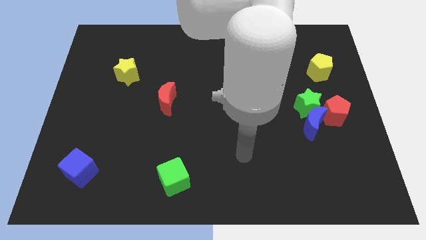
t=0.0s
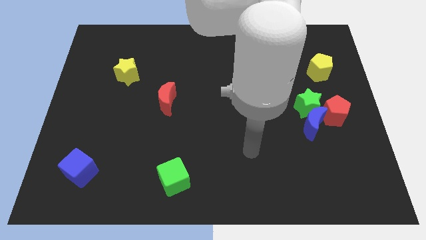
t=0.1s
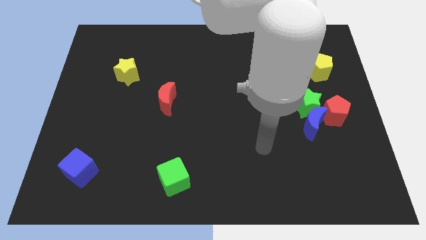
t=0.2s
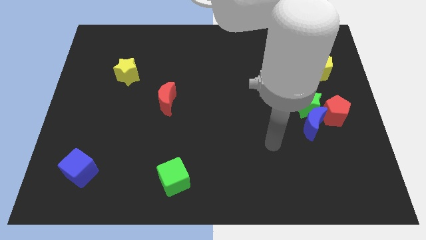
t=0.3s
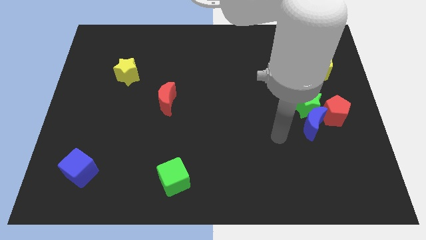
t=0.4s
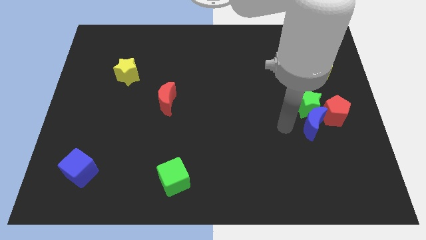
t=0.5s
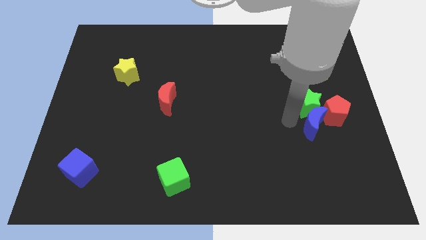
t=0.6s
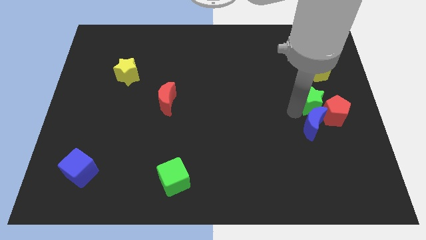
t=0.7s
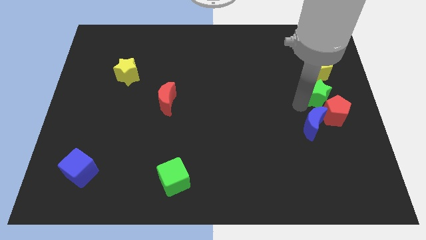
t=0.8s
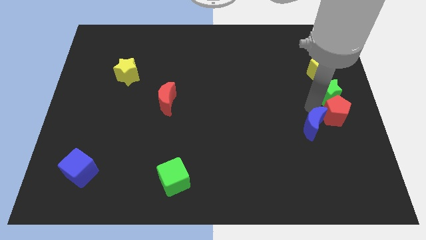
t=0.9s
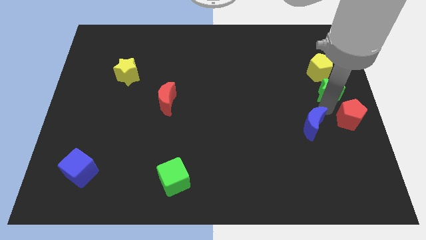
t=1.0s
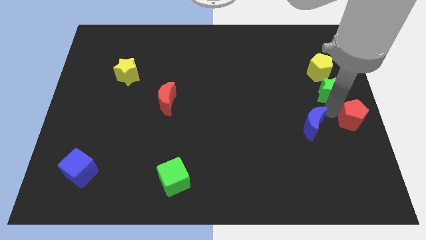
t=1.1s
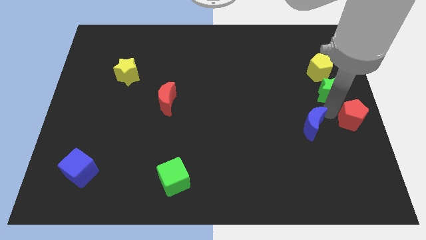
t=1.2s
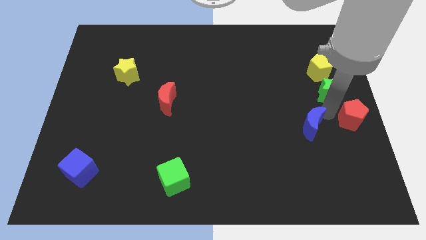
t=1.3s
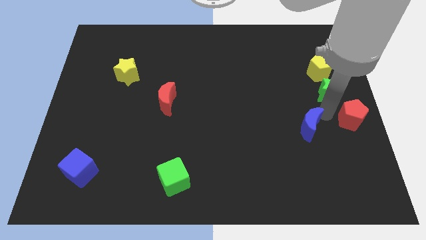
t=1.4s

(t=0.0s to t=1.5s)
move the blue moon away from the green star and red pentagon

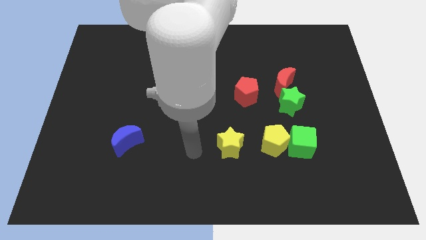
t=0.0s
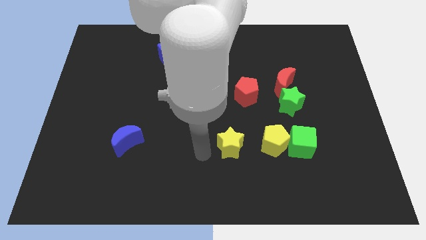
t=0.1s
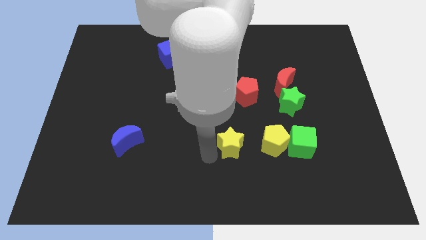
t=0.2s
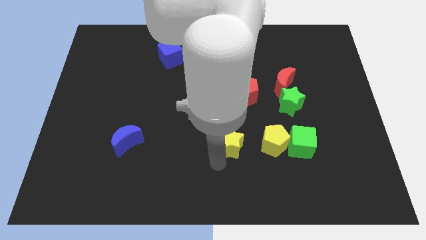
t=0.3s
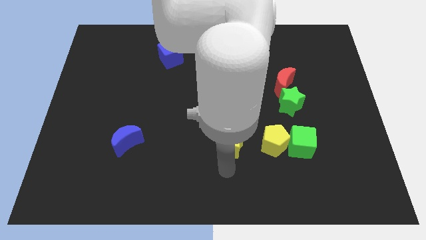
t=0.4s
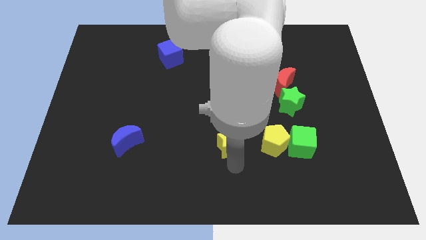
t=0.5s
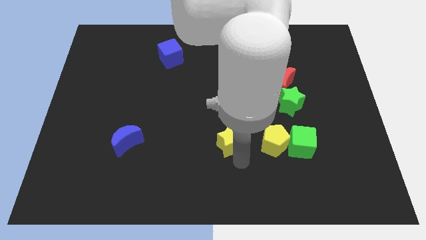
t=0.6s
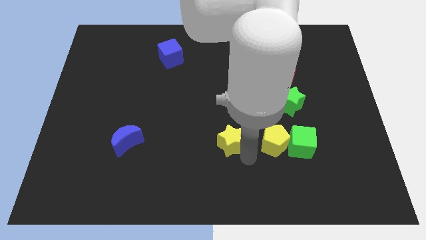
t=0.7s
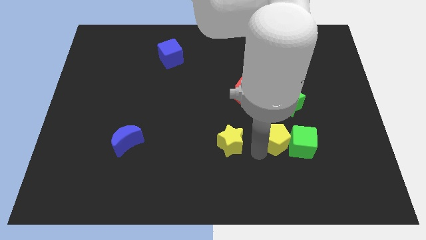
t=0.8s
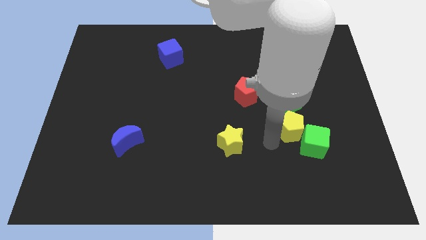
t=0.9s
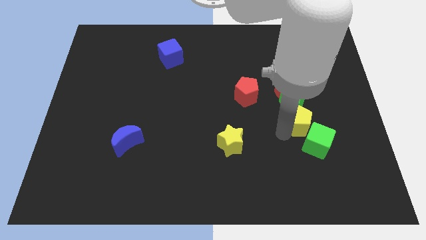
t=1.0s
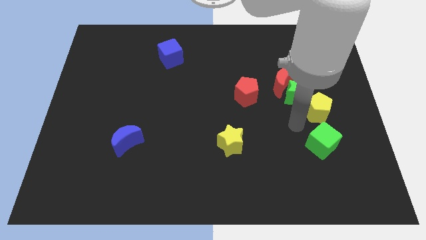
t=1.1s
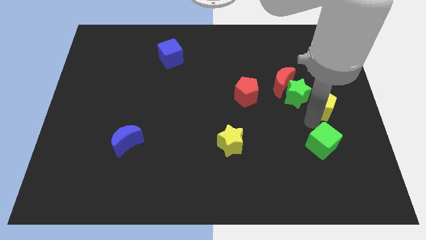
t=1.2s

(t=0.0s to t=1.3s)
separate the green cube from the yellow pentagon

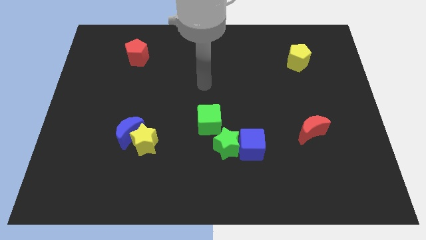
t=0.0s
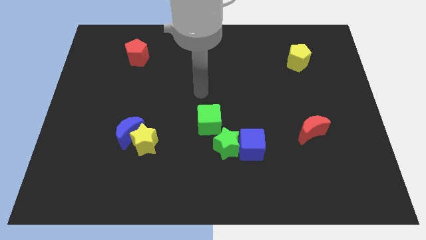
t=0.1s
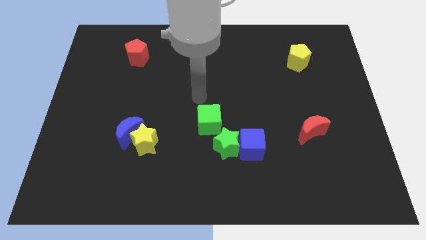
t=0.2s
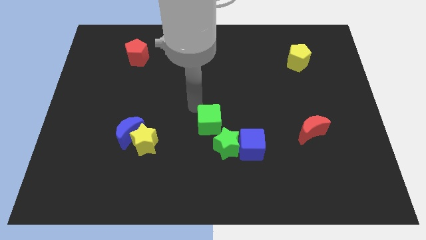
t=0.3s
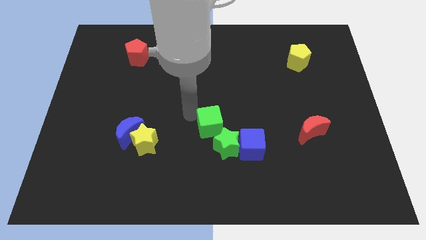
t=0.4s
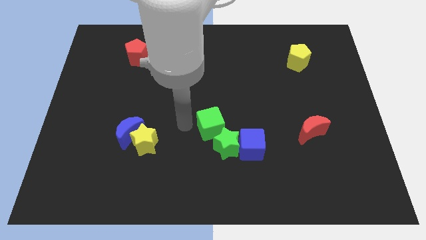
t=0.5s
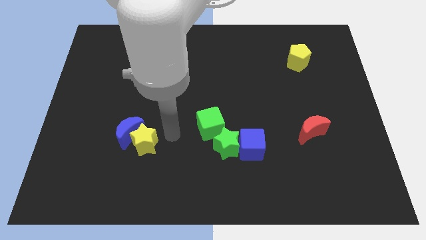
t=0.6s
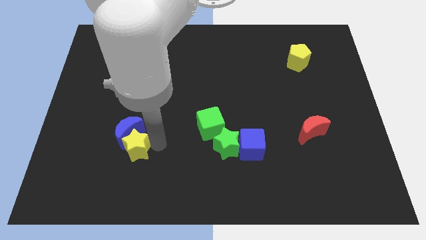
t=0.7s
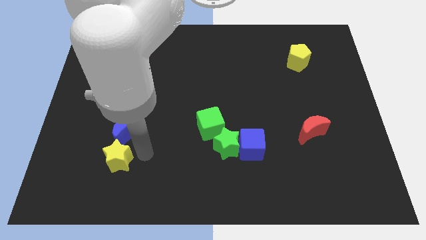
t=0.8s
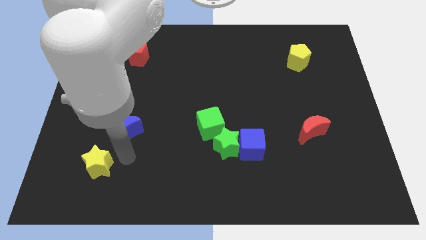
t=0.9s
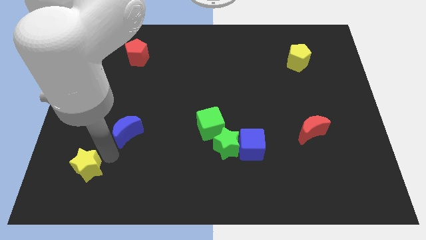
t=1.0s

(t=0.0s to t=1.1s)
pull the blue moon apart from the yellow star

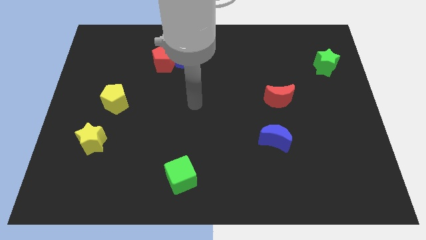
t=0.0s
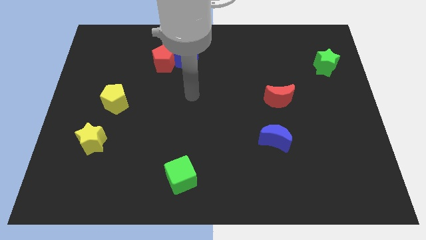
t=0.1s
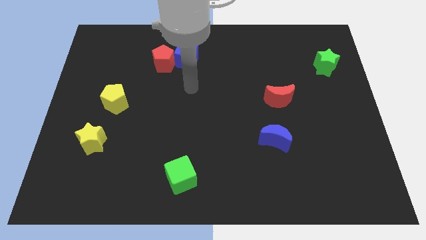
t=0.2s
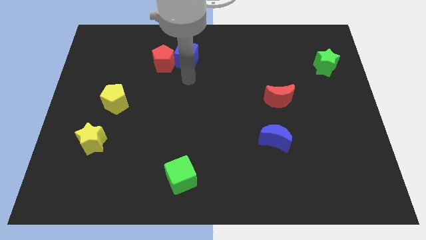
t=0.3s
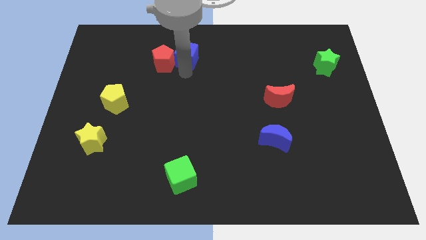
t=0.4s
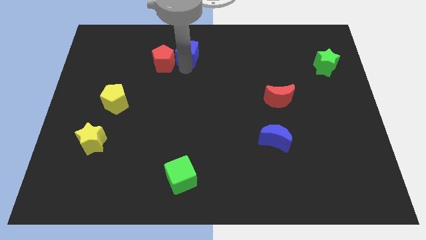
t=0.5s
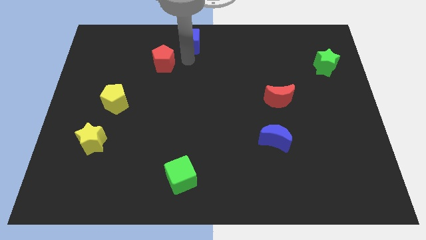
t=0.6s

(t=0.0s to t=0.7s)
move the red pentagon away from the blue cube

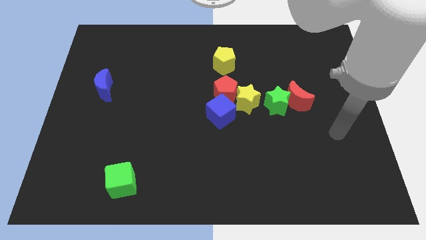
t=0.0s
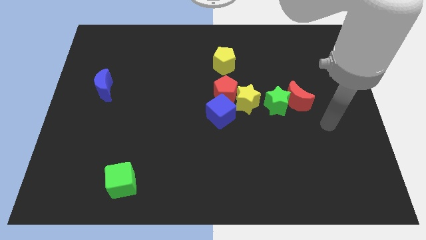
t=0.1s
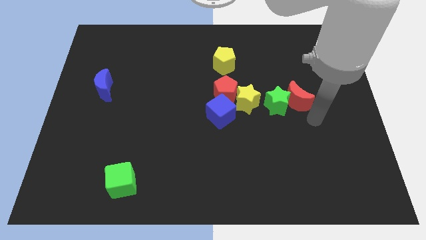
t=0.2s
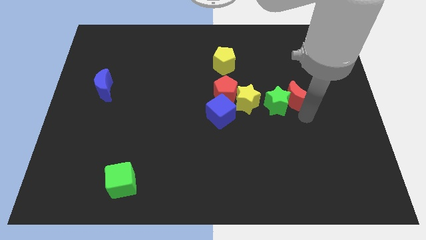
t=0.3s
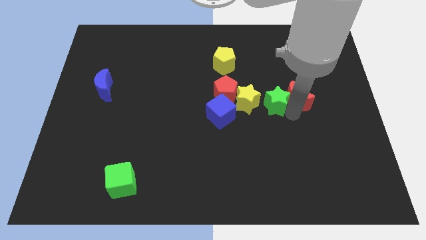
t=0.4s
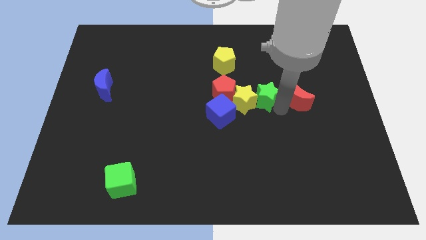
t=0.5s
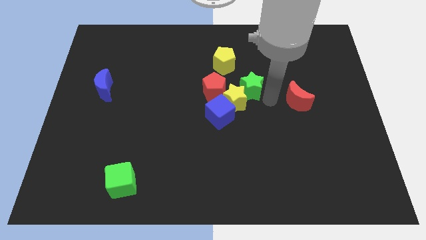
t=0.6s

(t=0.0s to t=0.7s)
move the red moon away from the green star

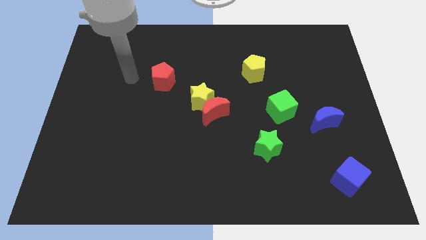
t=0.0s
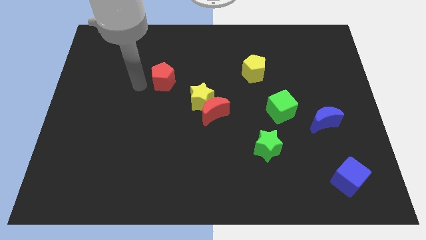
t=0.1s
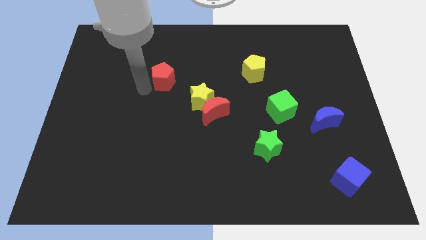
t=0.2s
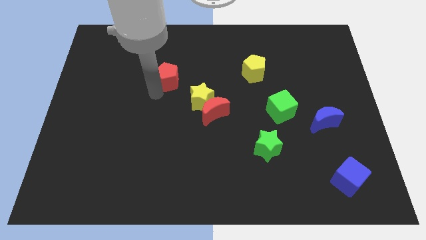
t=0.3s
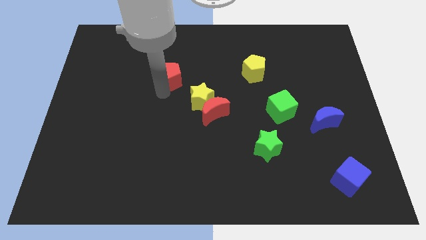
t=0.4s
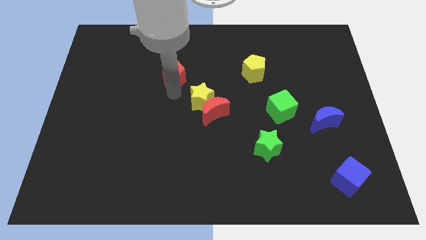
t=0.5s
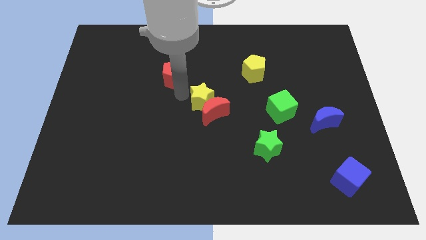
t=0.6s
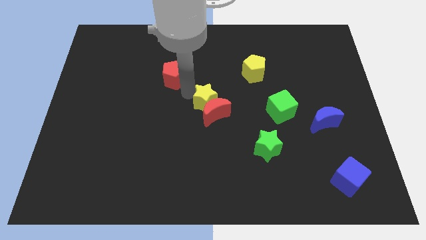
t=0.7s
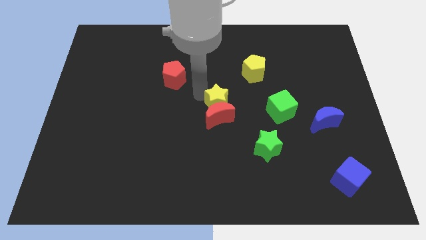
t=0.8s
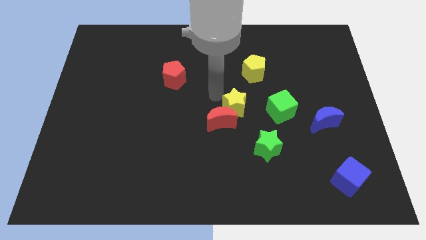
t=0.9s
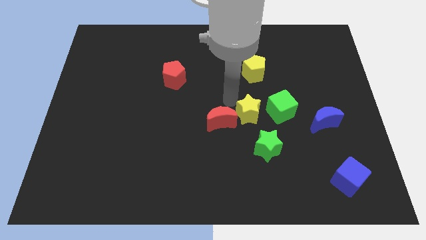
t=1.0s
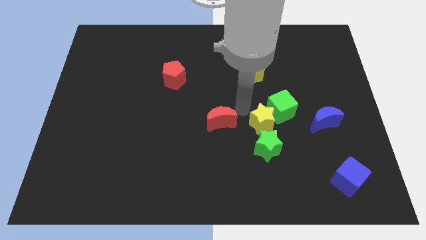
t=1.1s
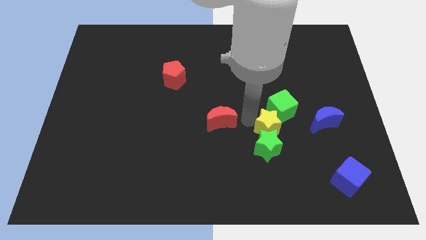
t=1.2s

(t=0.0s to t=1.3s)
separate the red moon from the yellow star

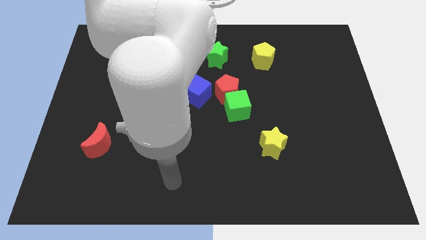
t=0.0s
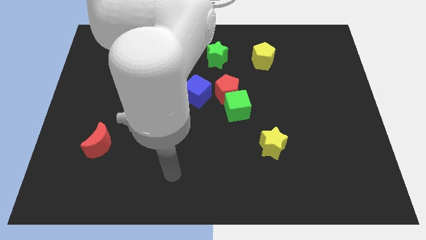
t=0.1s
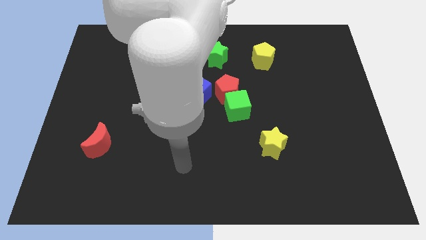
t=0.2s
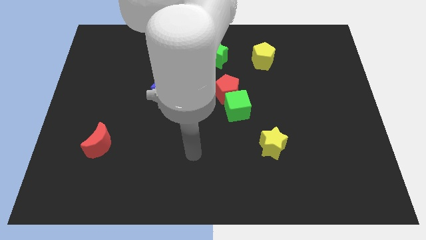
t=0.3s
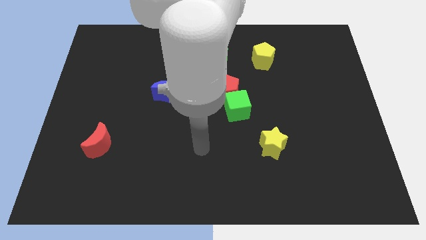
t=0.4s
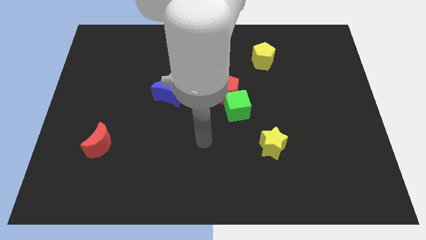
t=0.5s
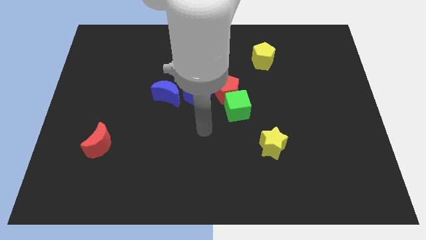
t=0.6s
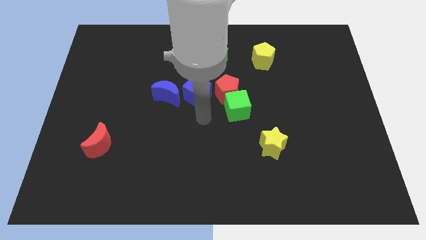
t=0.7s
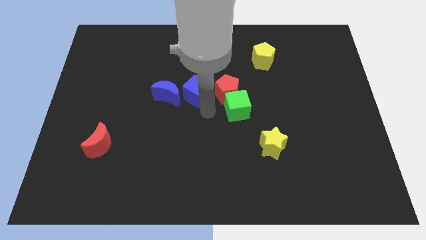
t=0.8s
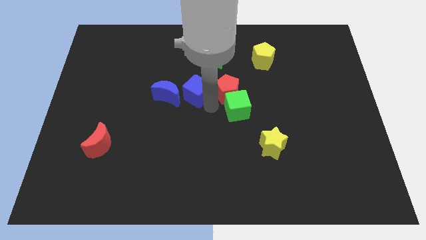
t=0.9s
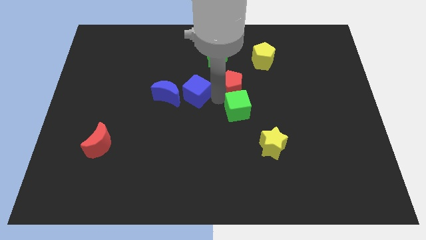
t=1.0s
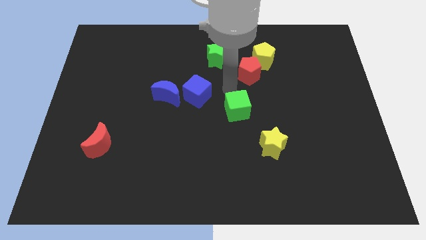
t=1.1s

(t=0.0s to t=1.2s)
move the green cube away from the red pentagon

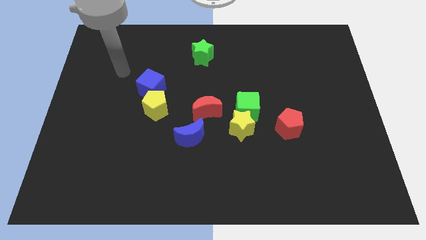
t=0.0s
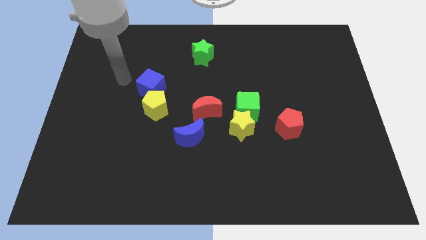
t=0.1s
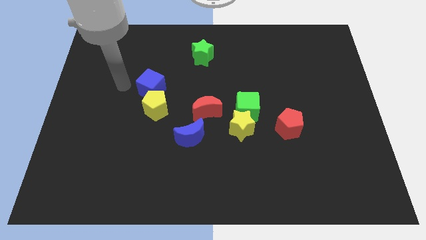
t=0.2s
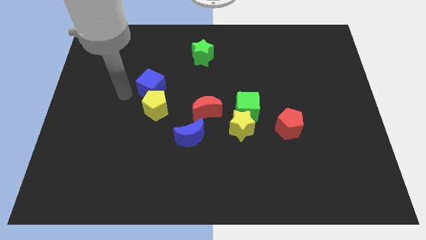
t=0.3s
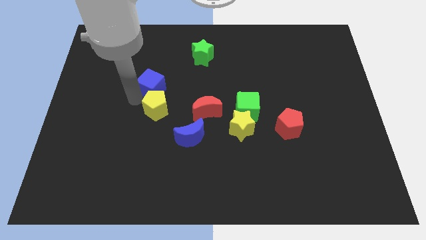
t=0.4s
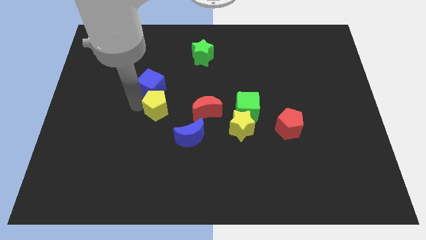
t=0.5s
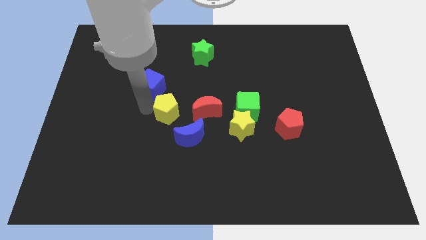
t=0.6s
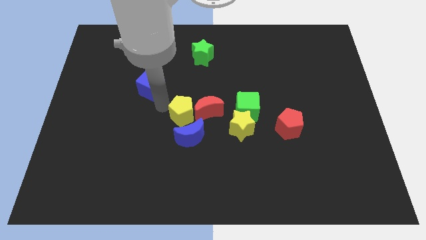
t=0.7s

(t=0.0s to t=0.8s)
pull the blue cube apart from the yellow pentagon

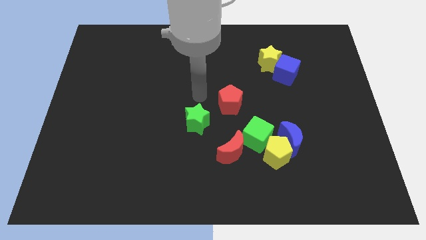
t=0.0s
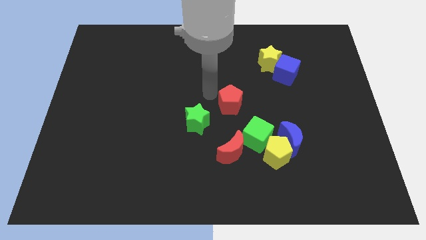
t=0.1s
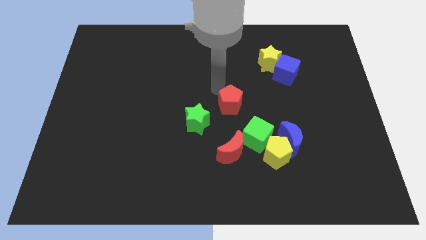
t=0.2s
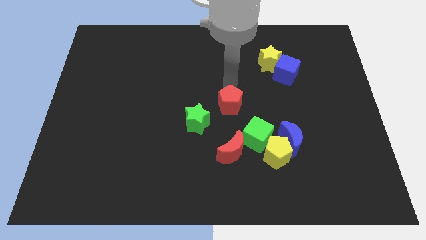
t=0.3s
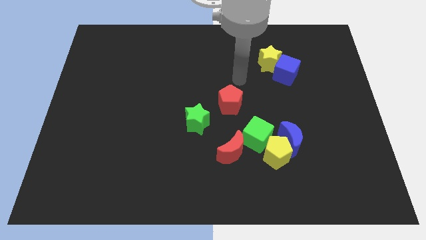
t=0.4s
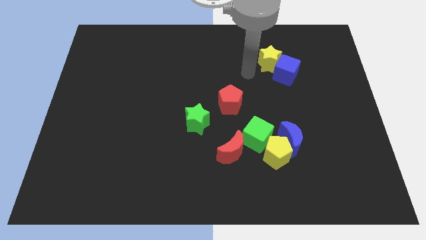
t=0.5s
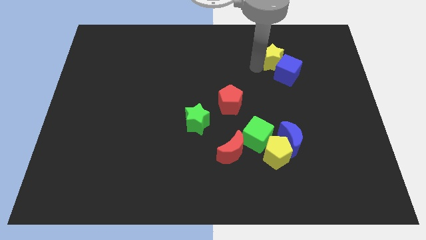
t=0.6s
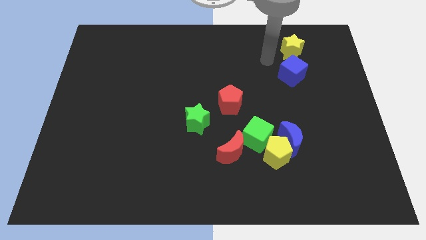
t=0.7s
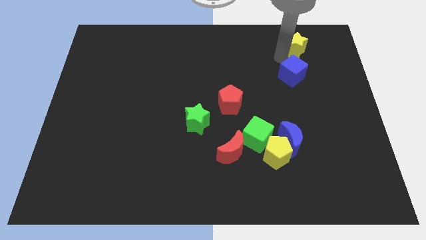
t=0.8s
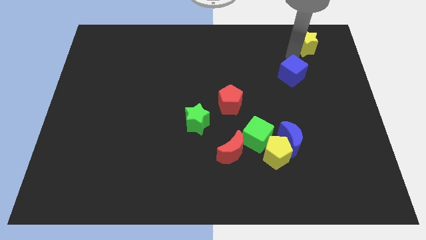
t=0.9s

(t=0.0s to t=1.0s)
separate the blue cube from the yellow star
